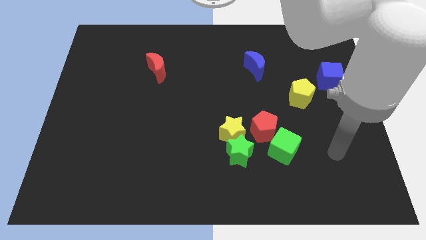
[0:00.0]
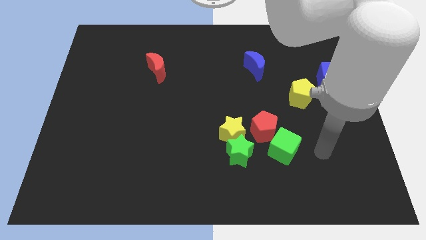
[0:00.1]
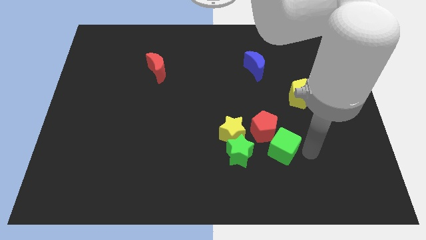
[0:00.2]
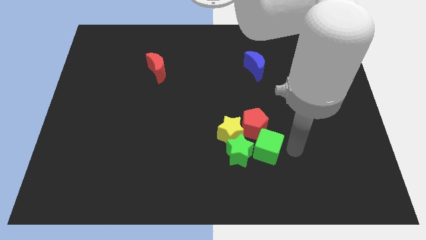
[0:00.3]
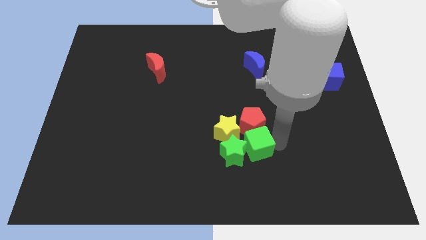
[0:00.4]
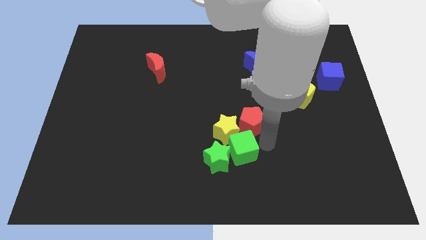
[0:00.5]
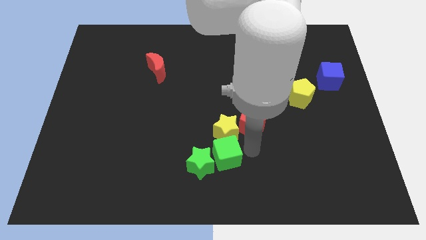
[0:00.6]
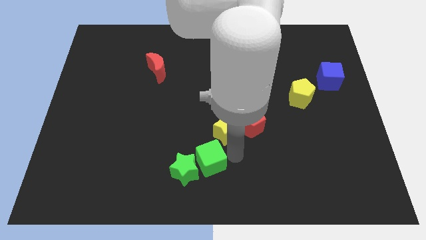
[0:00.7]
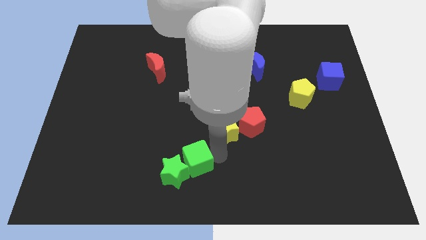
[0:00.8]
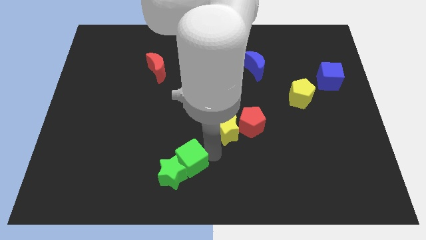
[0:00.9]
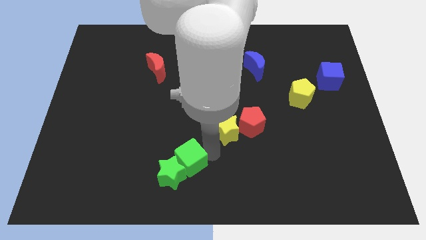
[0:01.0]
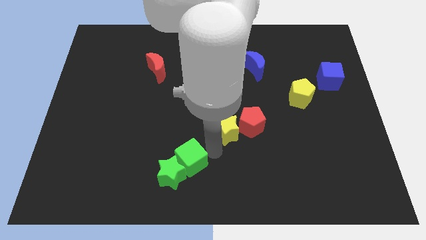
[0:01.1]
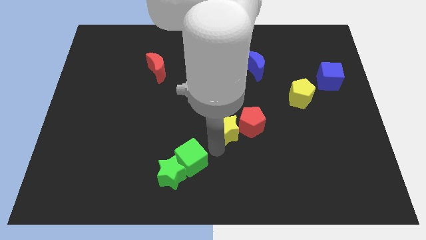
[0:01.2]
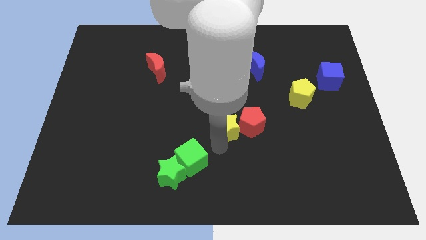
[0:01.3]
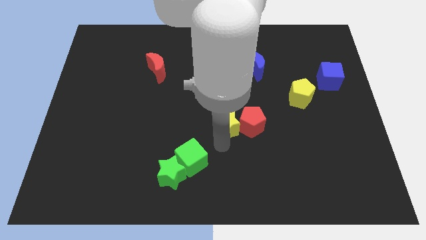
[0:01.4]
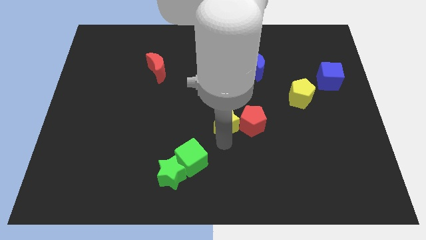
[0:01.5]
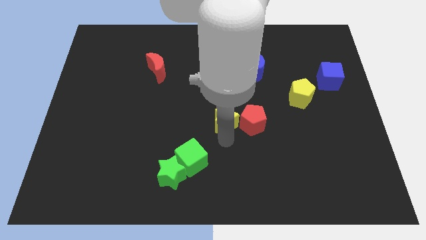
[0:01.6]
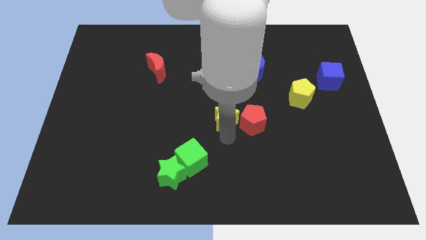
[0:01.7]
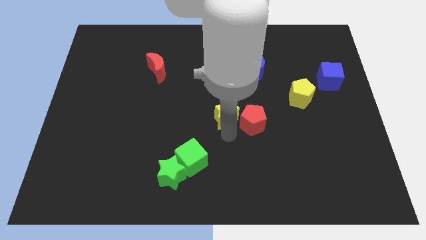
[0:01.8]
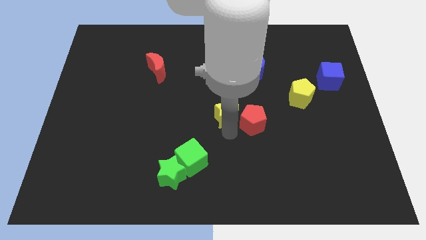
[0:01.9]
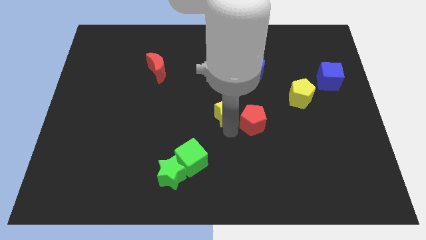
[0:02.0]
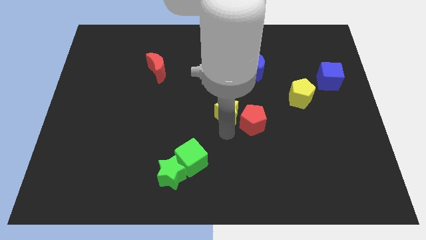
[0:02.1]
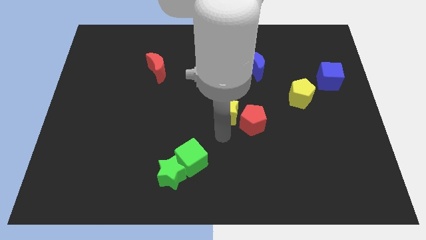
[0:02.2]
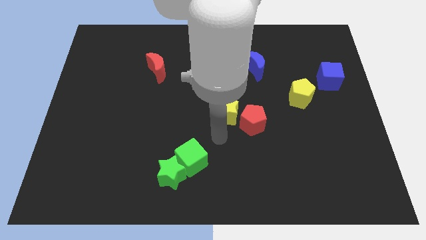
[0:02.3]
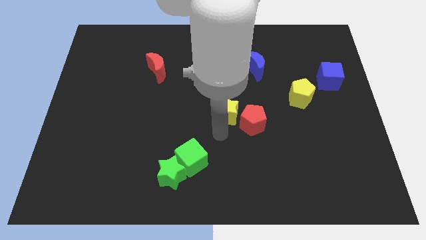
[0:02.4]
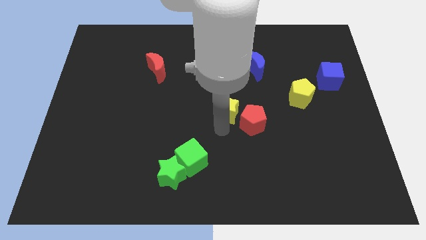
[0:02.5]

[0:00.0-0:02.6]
pull the yellow star apart from the green star and red pentagon

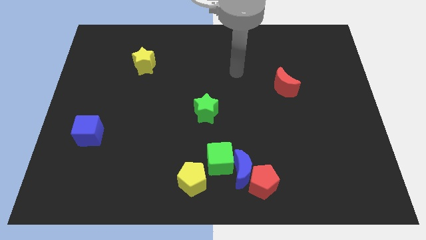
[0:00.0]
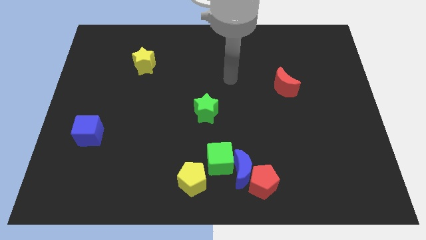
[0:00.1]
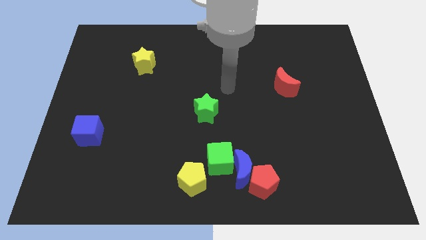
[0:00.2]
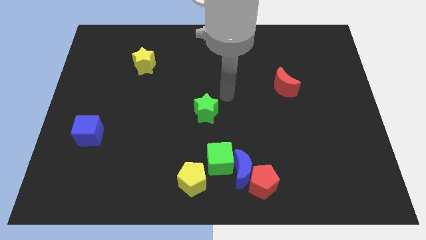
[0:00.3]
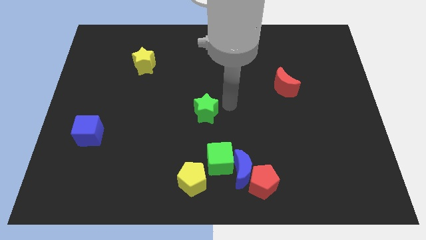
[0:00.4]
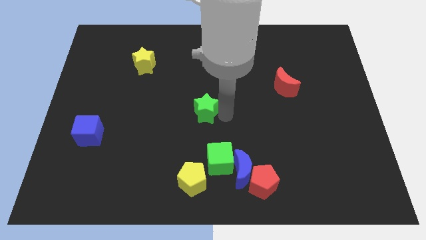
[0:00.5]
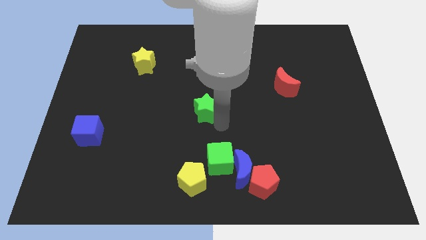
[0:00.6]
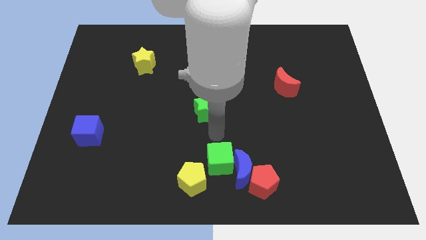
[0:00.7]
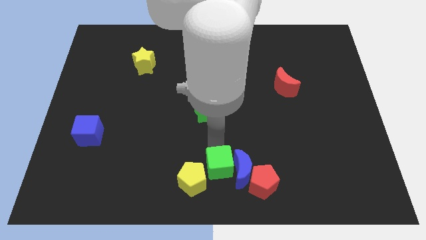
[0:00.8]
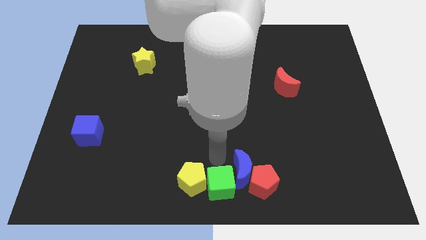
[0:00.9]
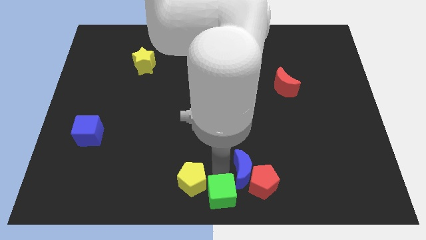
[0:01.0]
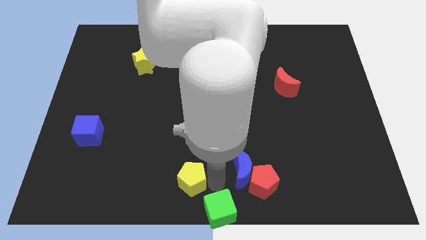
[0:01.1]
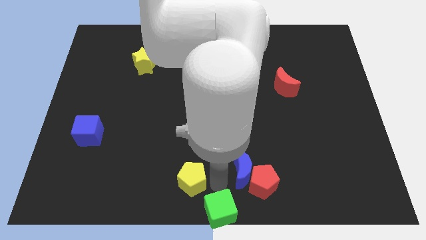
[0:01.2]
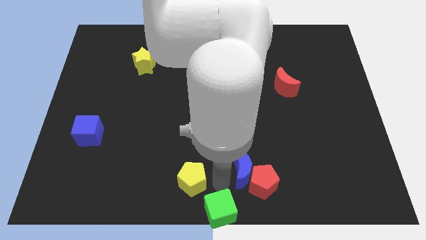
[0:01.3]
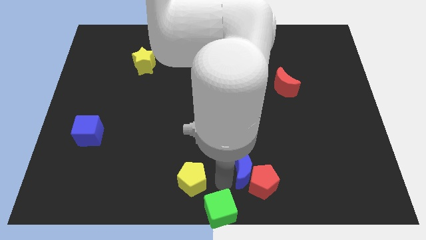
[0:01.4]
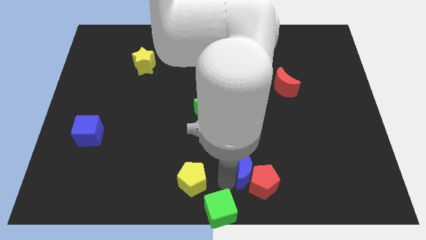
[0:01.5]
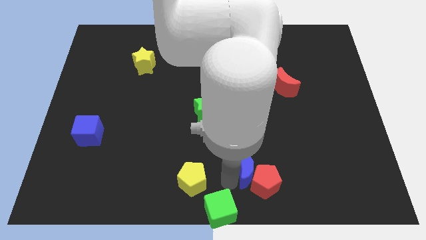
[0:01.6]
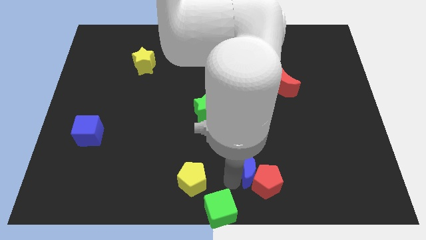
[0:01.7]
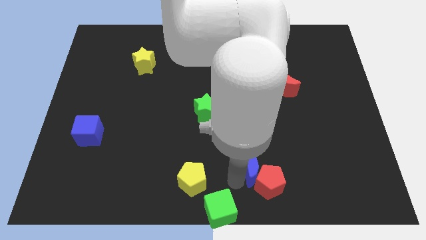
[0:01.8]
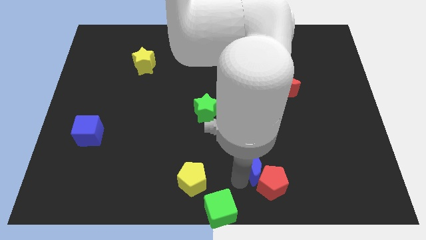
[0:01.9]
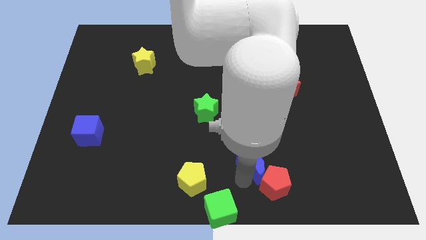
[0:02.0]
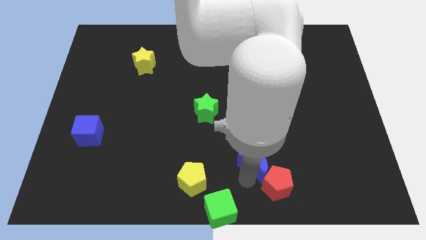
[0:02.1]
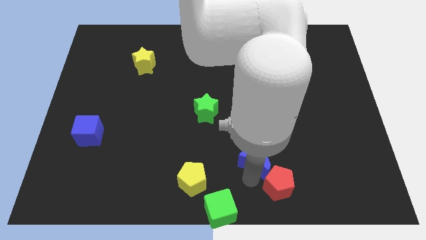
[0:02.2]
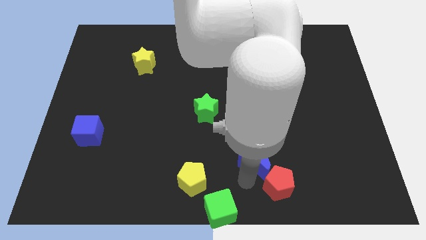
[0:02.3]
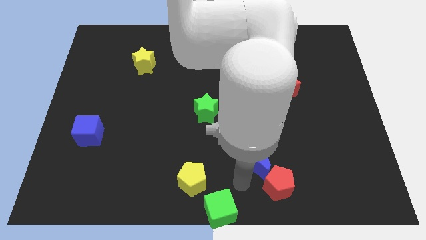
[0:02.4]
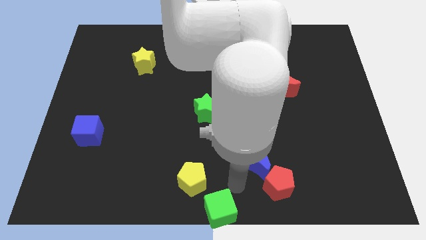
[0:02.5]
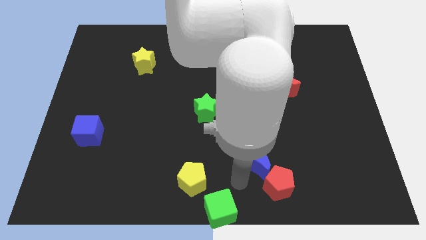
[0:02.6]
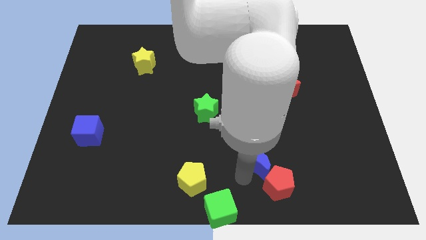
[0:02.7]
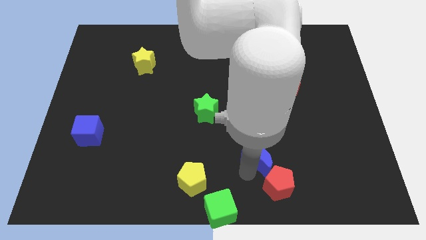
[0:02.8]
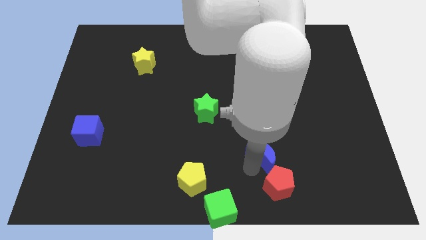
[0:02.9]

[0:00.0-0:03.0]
separate the blue moon from the group

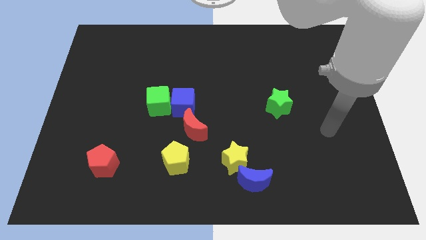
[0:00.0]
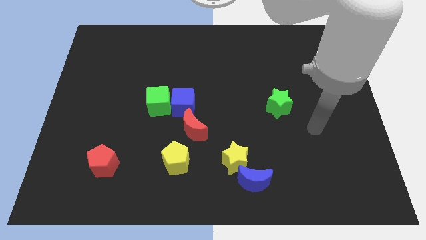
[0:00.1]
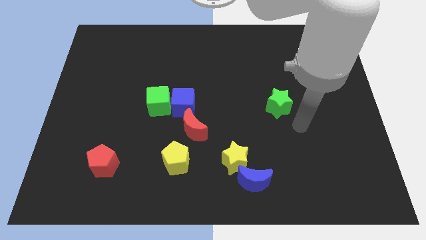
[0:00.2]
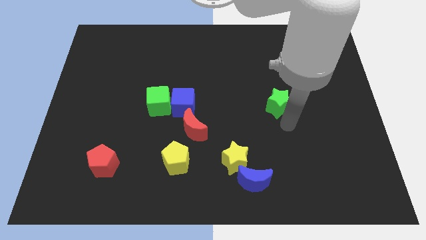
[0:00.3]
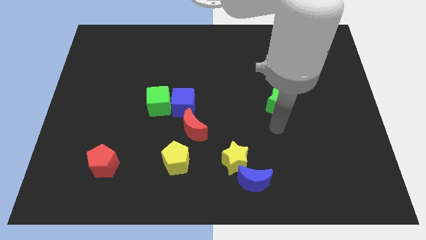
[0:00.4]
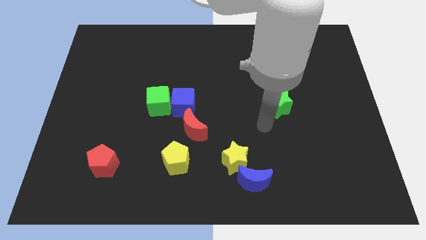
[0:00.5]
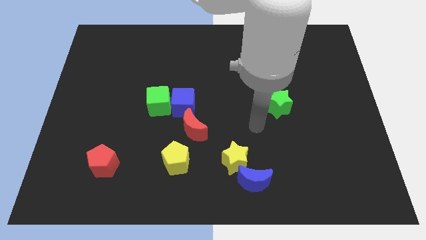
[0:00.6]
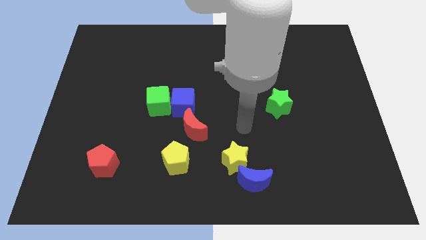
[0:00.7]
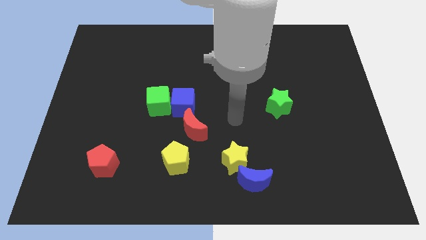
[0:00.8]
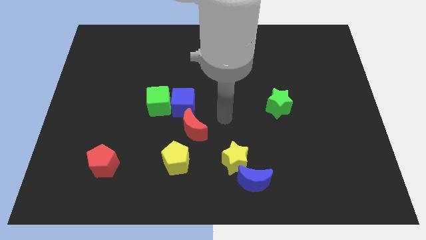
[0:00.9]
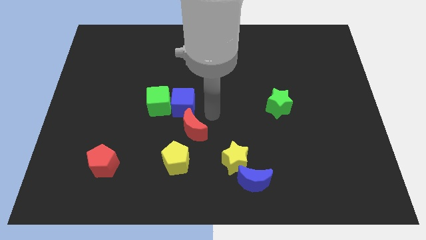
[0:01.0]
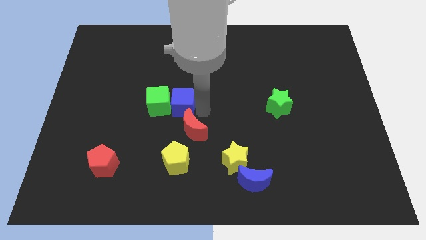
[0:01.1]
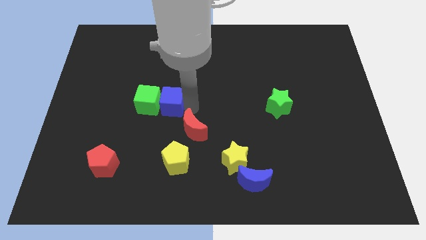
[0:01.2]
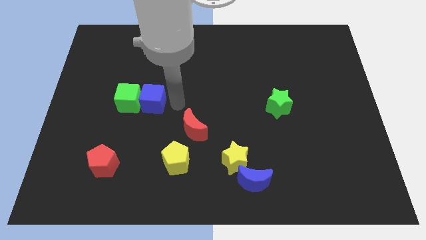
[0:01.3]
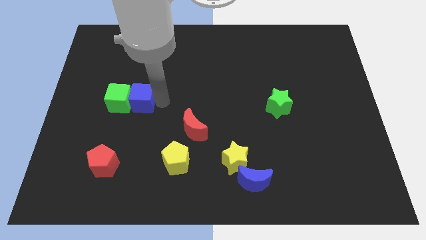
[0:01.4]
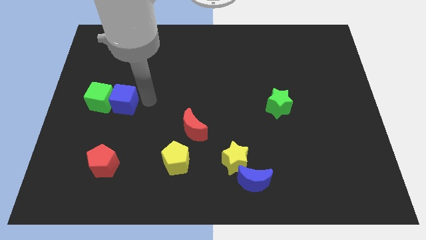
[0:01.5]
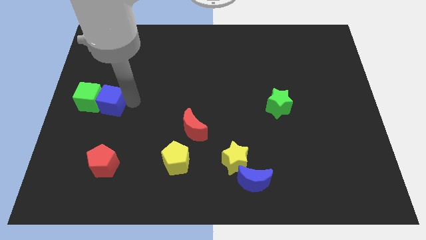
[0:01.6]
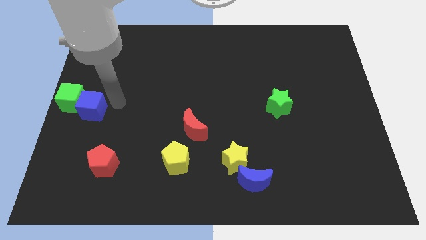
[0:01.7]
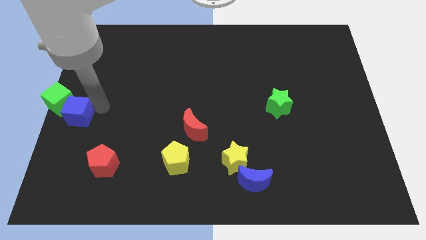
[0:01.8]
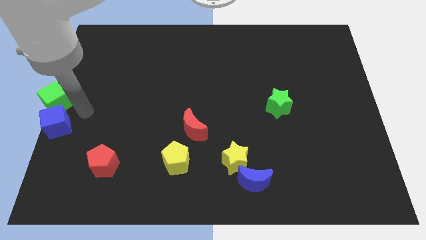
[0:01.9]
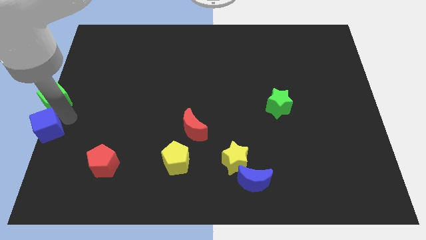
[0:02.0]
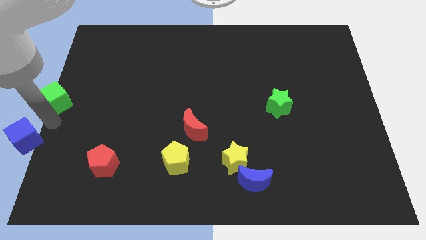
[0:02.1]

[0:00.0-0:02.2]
separate the green cube from the blue cube

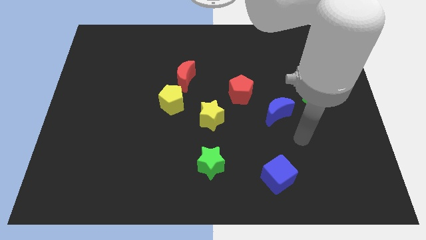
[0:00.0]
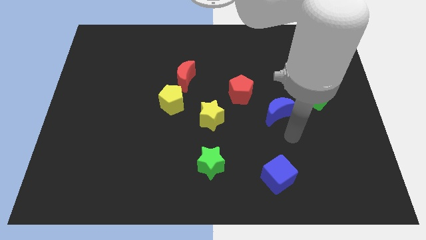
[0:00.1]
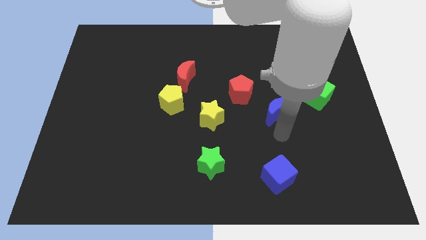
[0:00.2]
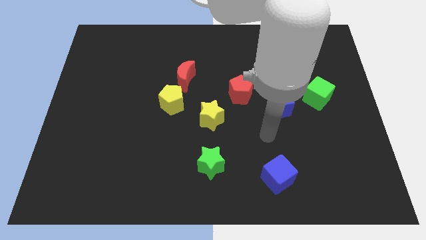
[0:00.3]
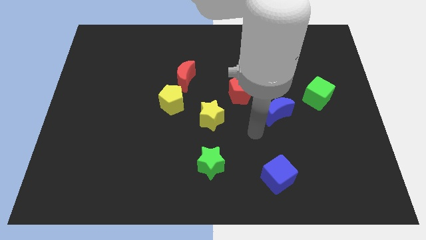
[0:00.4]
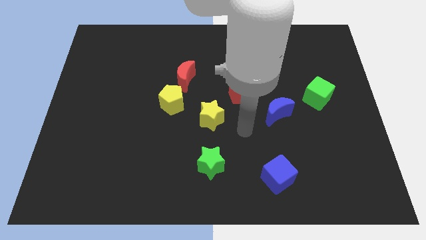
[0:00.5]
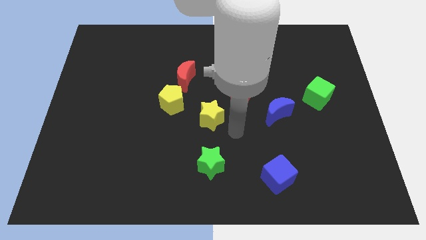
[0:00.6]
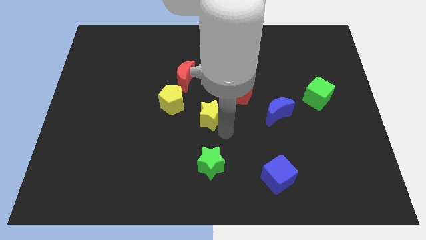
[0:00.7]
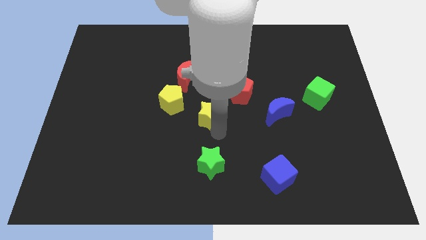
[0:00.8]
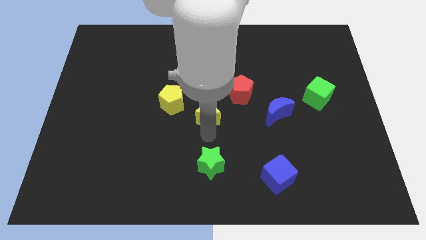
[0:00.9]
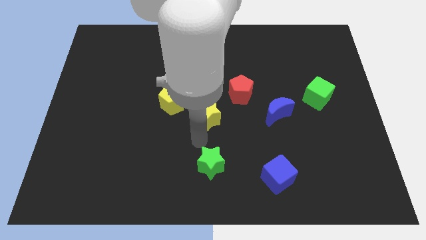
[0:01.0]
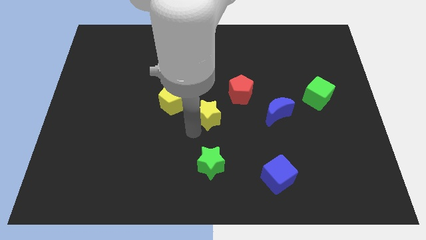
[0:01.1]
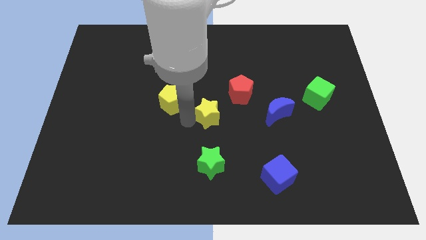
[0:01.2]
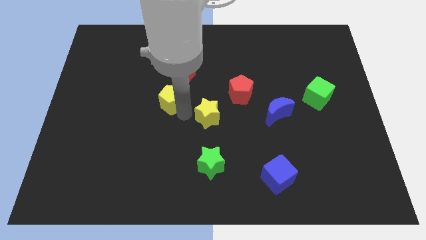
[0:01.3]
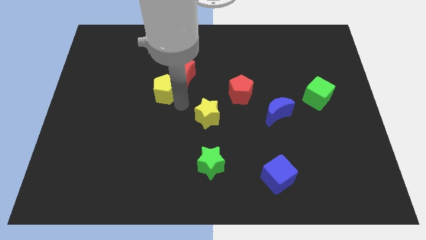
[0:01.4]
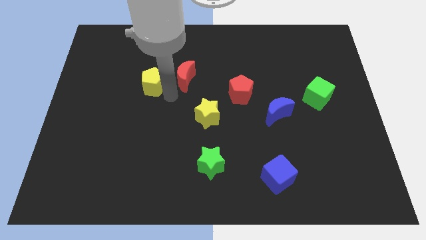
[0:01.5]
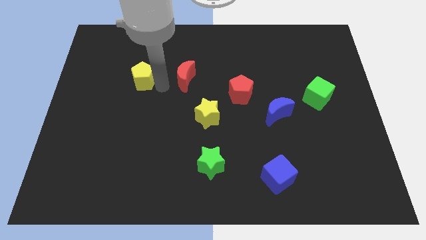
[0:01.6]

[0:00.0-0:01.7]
pull the red moon apart from the yellow pentagon
